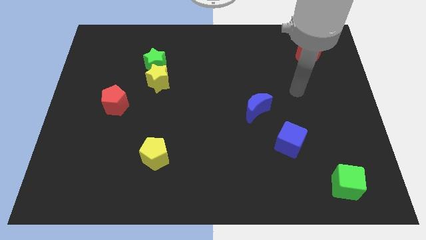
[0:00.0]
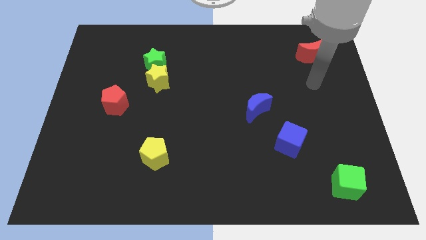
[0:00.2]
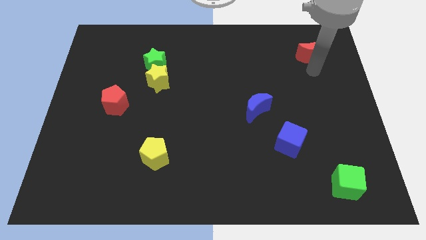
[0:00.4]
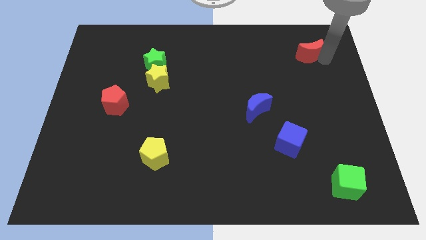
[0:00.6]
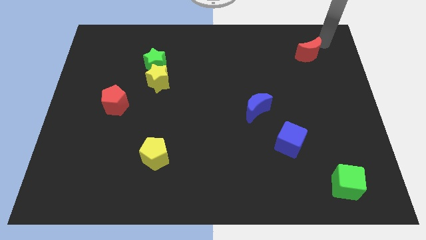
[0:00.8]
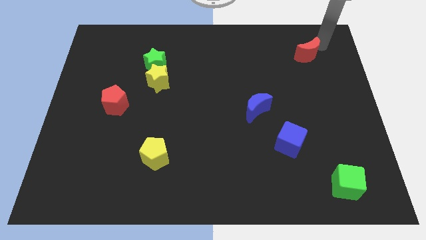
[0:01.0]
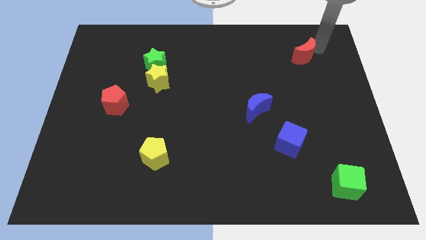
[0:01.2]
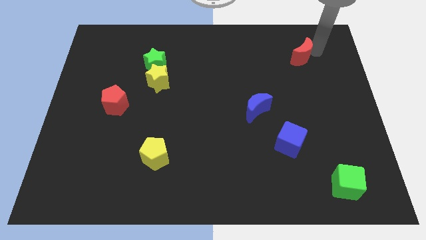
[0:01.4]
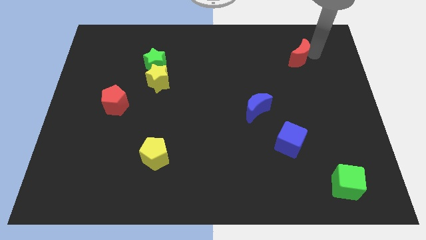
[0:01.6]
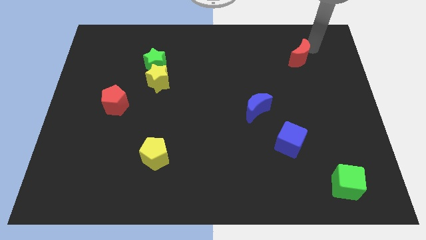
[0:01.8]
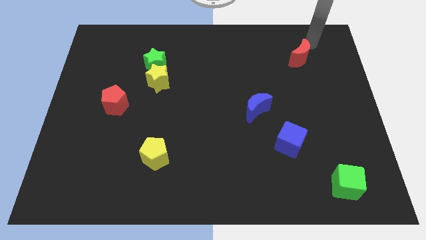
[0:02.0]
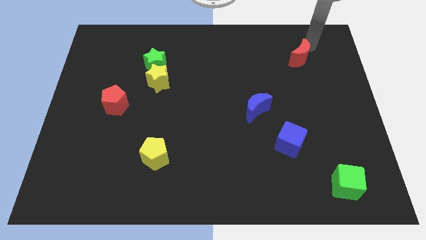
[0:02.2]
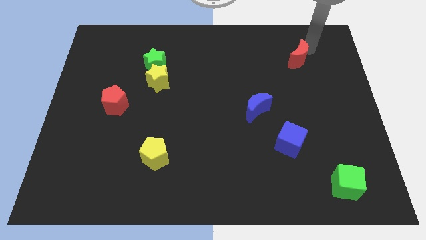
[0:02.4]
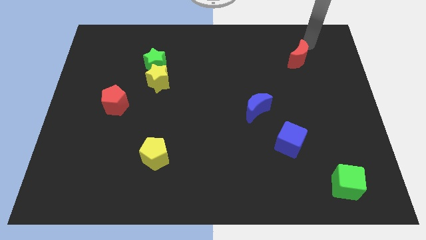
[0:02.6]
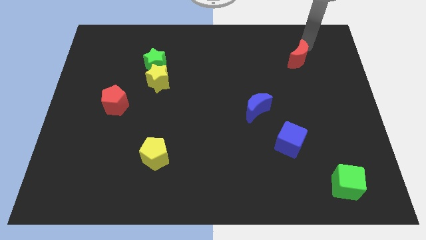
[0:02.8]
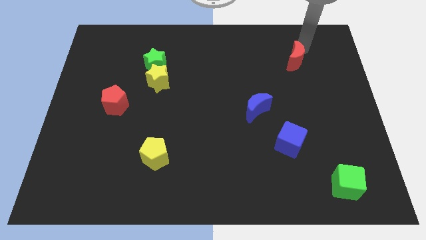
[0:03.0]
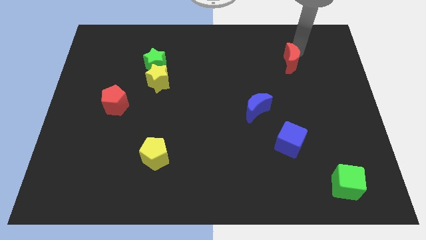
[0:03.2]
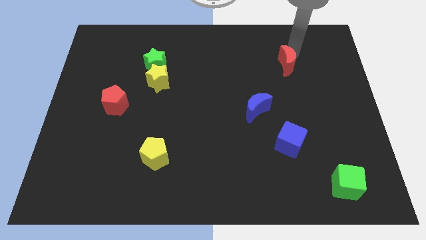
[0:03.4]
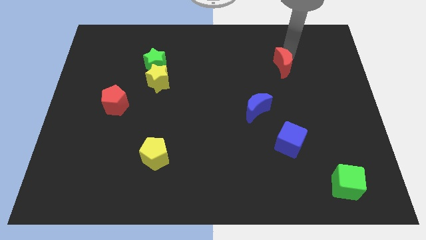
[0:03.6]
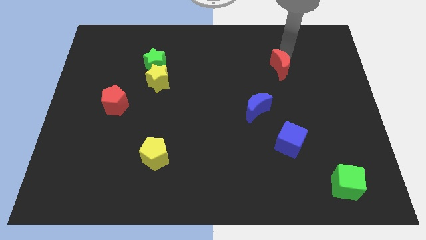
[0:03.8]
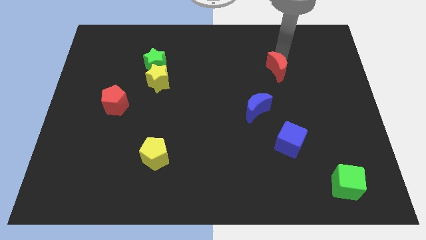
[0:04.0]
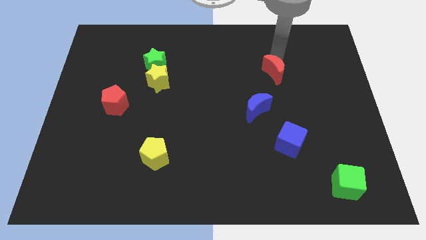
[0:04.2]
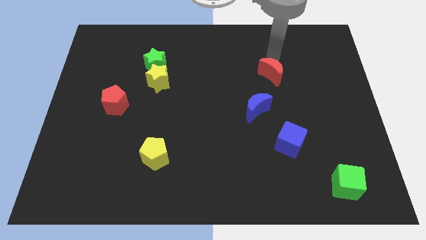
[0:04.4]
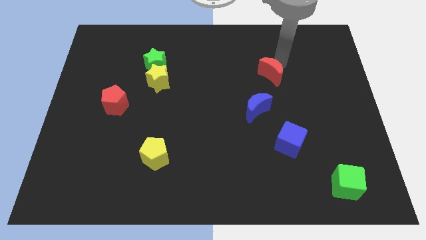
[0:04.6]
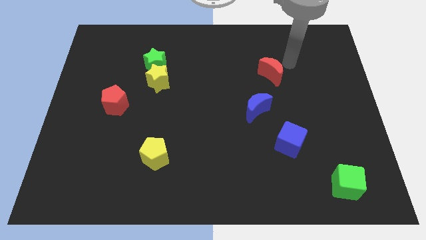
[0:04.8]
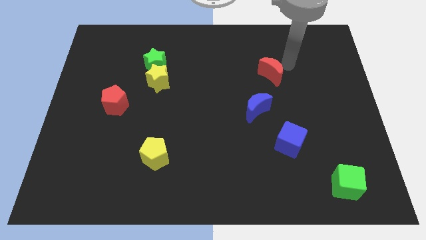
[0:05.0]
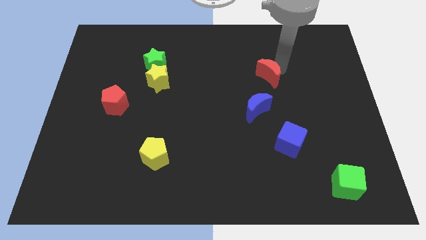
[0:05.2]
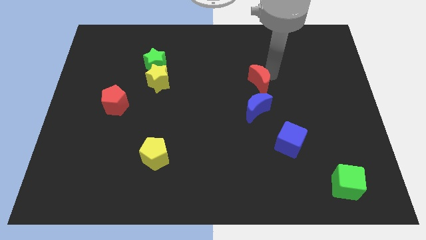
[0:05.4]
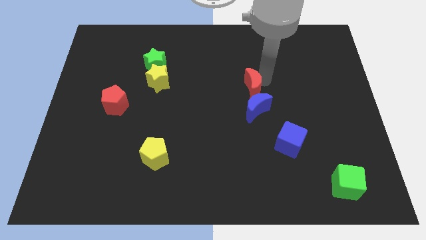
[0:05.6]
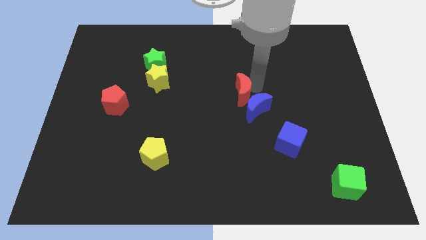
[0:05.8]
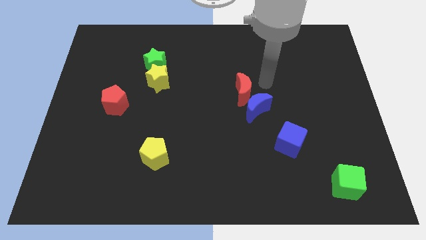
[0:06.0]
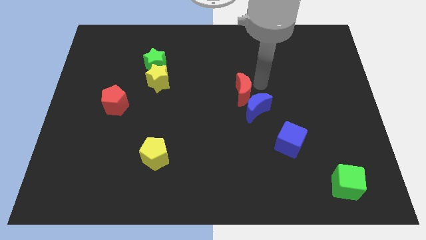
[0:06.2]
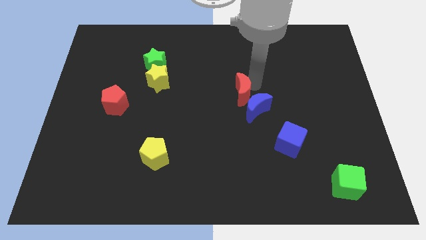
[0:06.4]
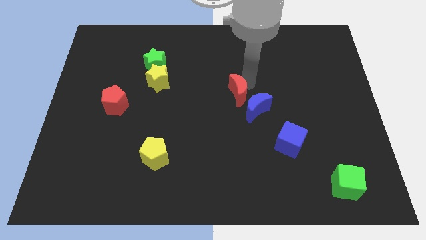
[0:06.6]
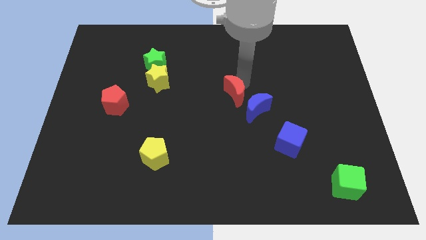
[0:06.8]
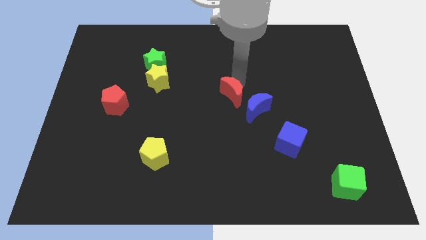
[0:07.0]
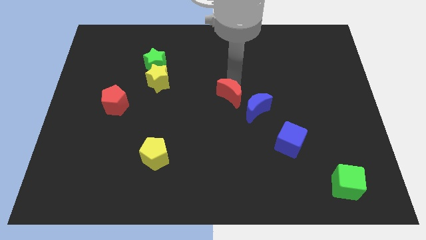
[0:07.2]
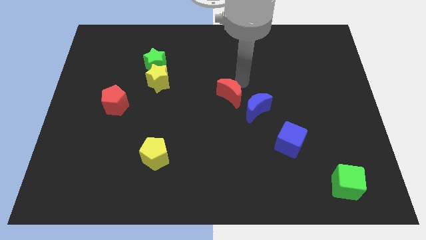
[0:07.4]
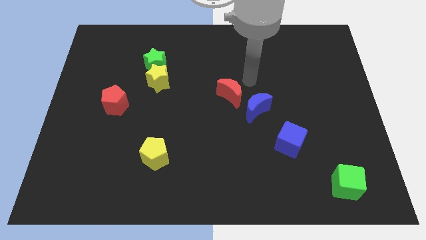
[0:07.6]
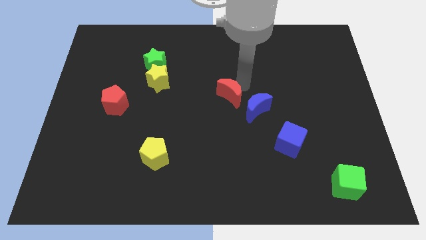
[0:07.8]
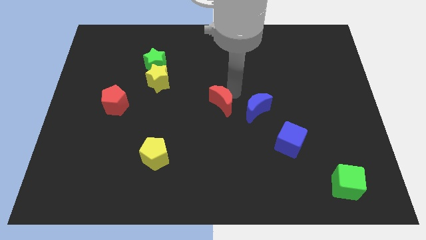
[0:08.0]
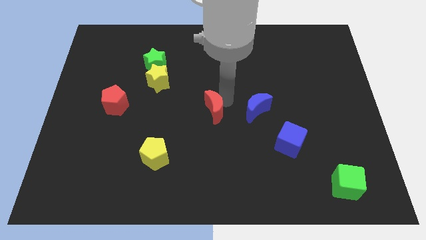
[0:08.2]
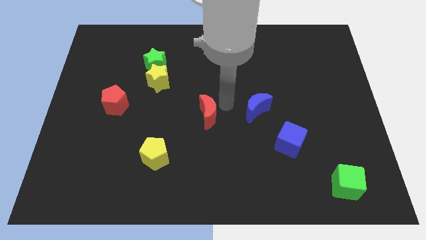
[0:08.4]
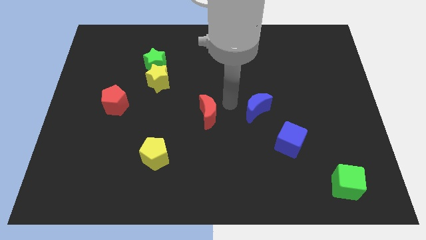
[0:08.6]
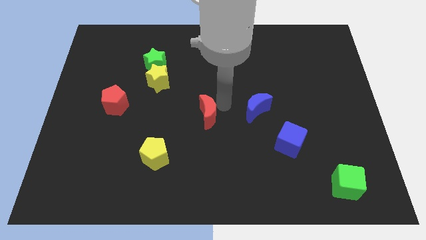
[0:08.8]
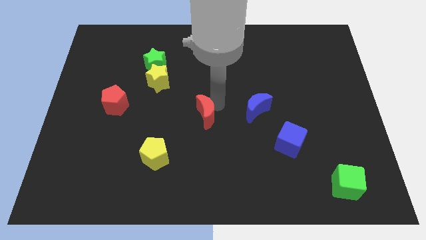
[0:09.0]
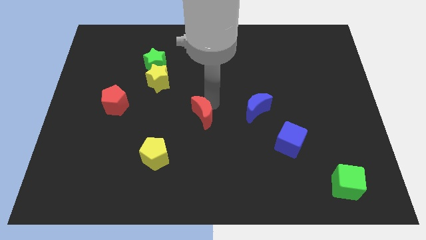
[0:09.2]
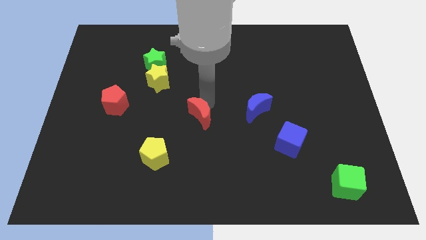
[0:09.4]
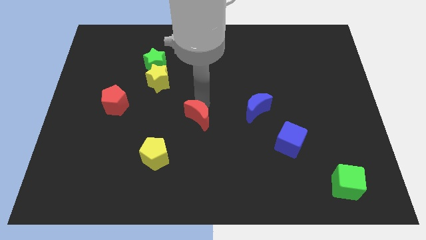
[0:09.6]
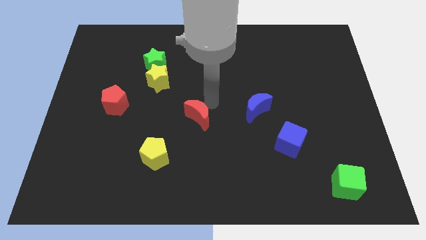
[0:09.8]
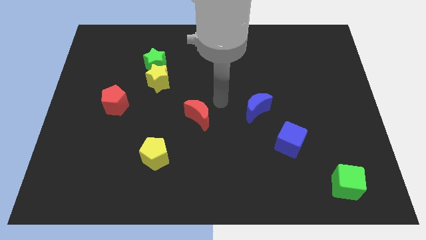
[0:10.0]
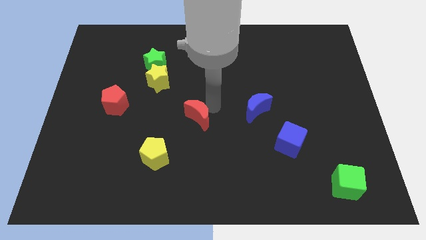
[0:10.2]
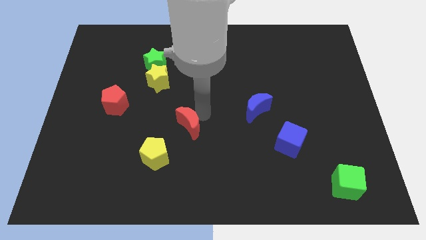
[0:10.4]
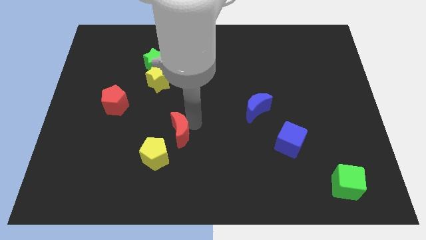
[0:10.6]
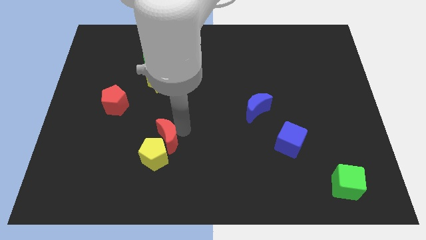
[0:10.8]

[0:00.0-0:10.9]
slide the red moon next to the yellow pentagon

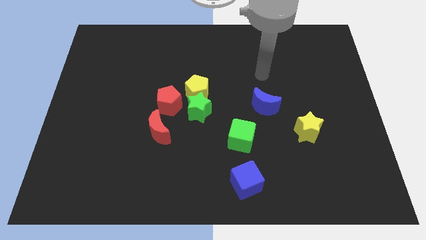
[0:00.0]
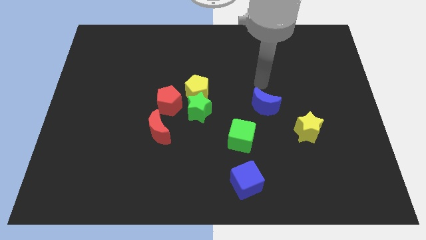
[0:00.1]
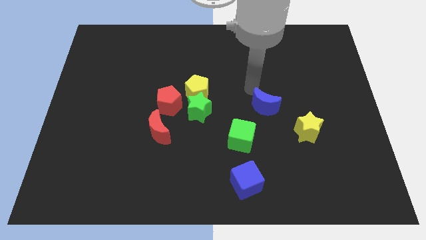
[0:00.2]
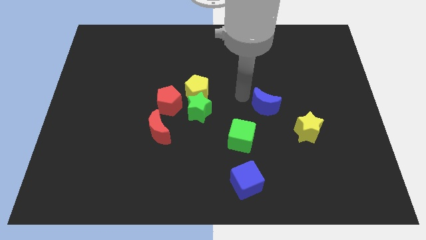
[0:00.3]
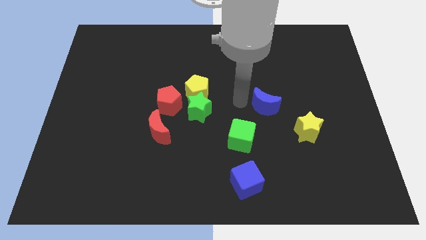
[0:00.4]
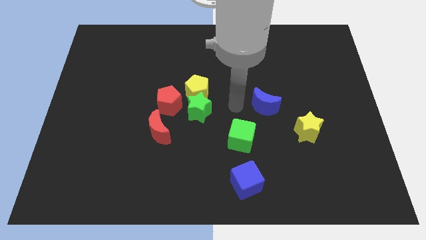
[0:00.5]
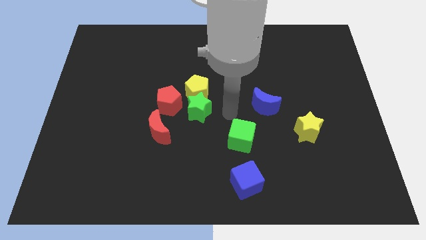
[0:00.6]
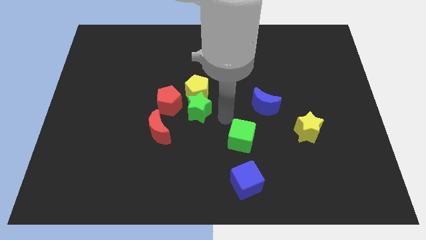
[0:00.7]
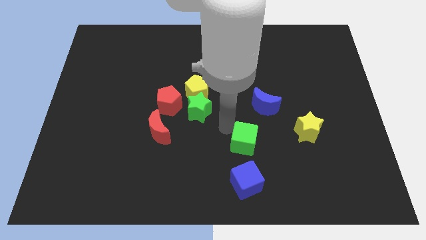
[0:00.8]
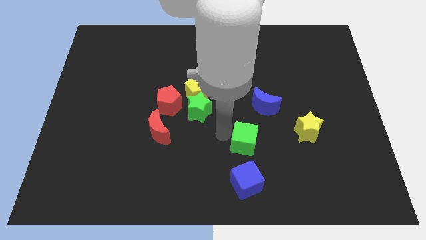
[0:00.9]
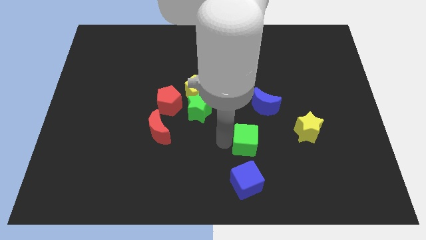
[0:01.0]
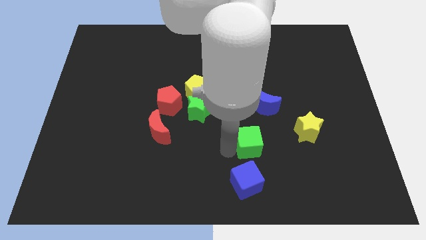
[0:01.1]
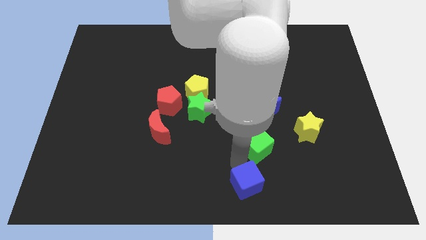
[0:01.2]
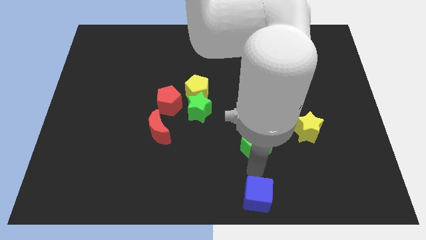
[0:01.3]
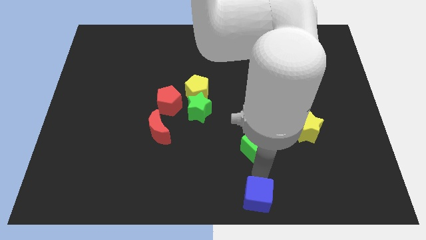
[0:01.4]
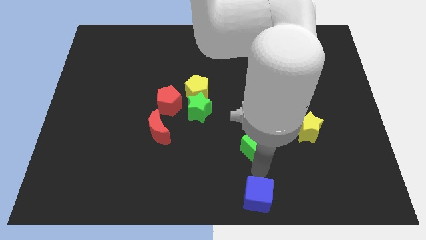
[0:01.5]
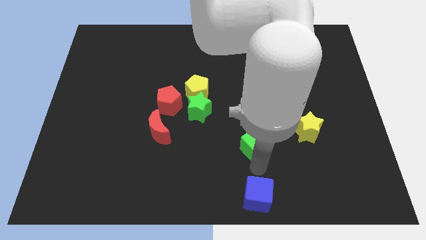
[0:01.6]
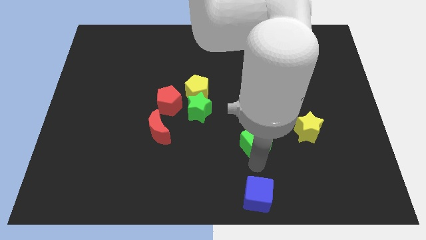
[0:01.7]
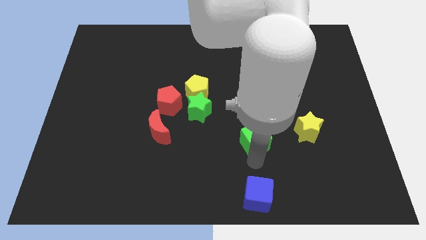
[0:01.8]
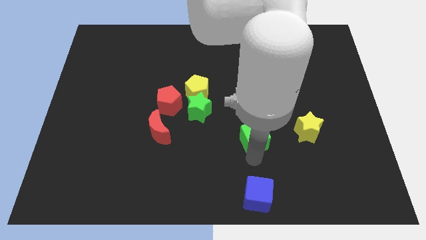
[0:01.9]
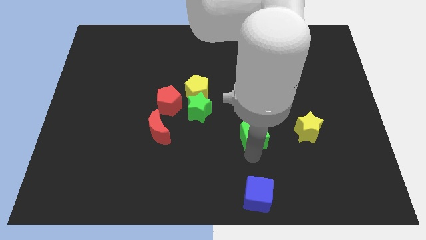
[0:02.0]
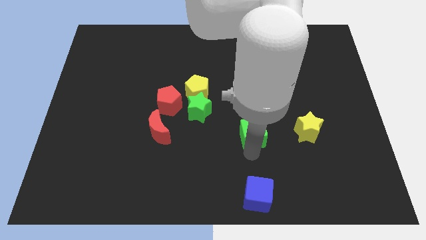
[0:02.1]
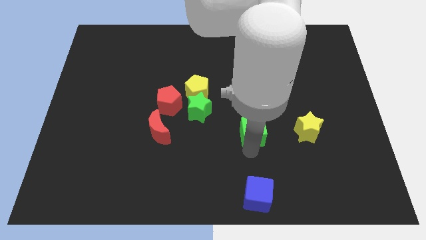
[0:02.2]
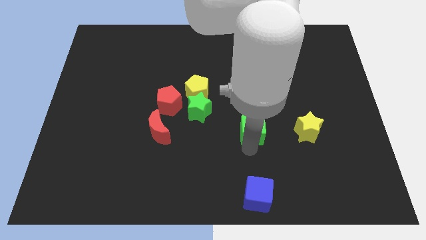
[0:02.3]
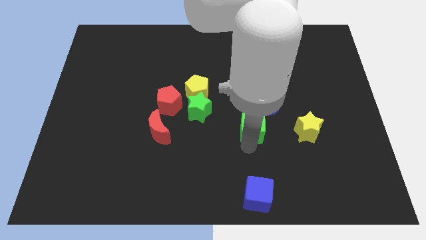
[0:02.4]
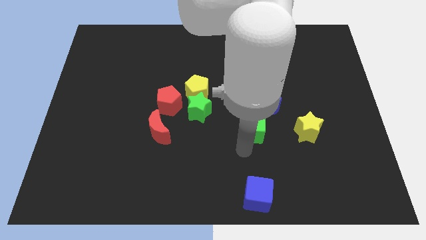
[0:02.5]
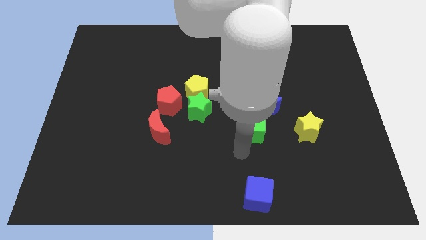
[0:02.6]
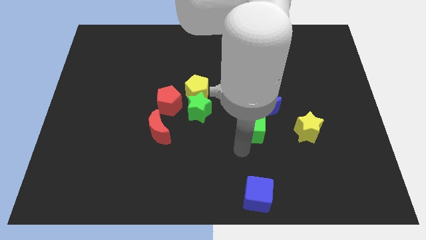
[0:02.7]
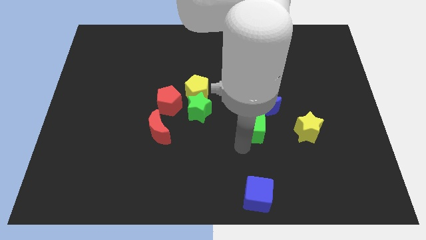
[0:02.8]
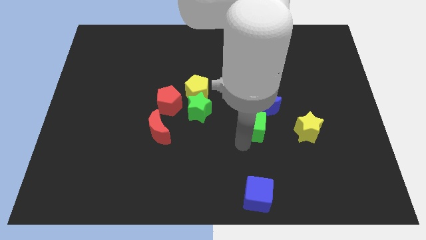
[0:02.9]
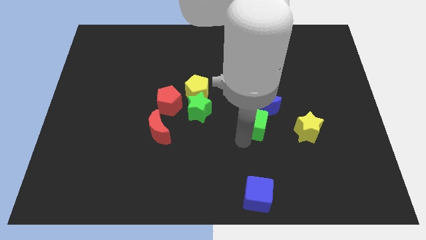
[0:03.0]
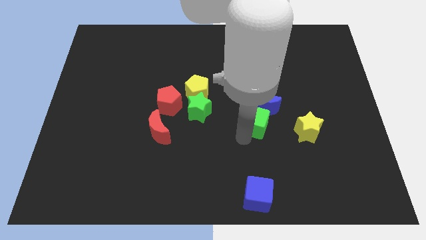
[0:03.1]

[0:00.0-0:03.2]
slide the green cube close to the blue moon
